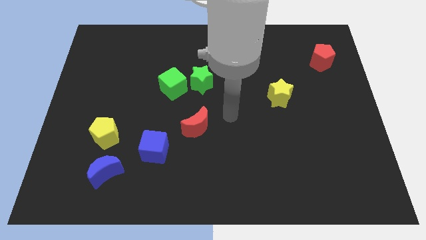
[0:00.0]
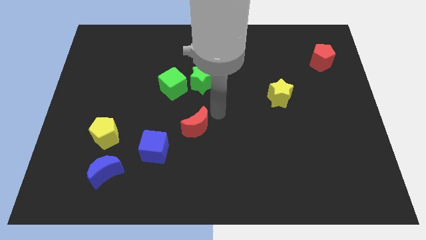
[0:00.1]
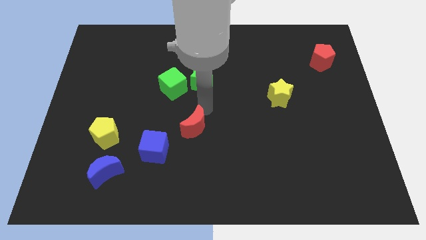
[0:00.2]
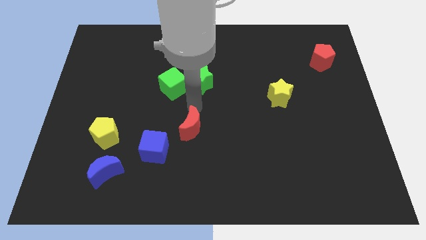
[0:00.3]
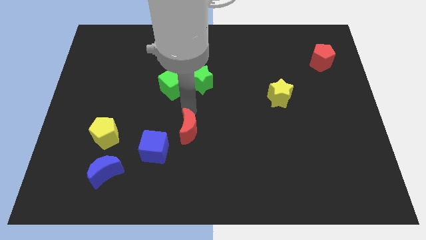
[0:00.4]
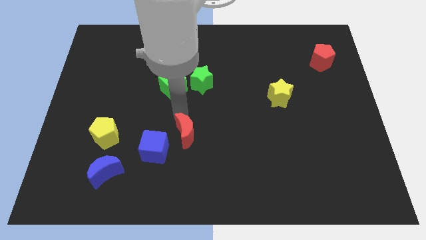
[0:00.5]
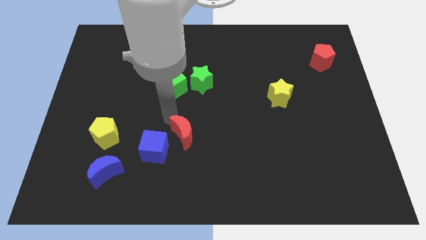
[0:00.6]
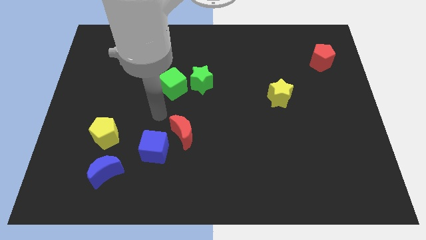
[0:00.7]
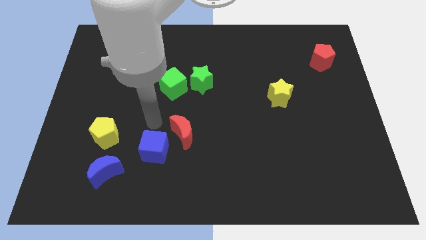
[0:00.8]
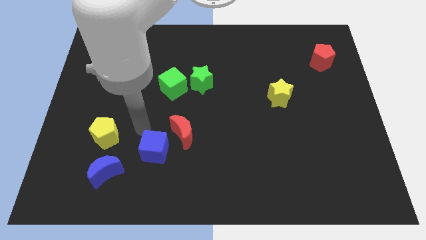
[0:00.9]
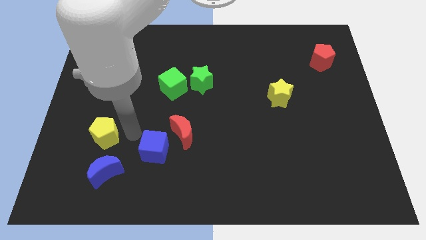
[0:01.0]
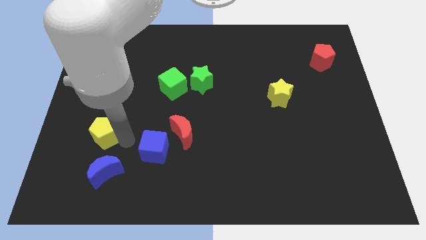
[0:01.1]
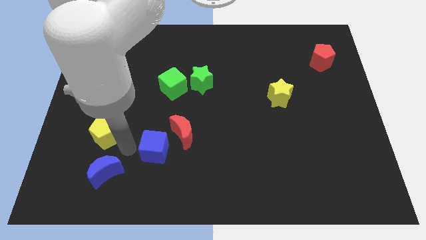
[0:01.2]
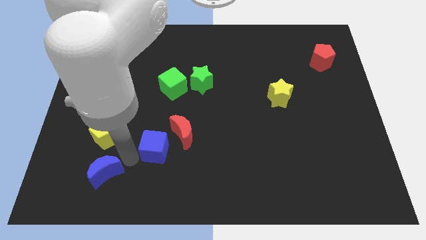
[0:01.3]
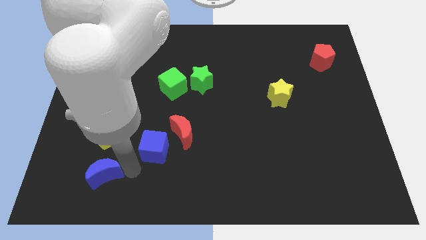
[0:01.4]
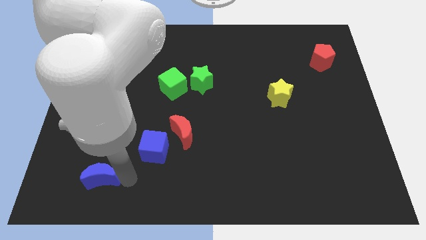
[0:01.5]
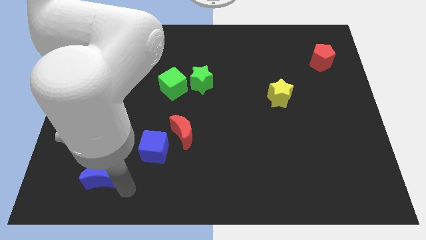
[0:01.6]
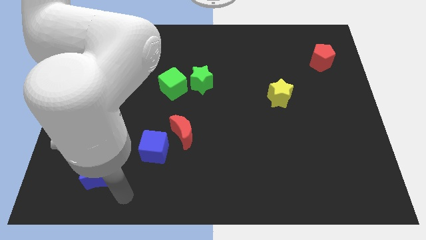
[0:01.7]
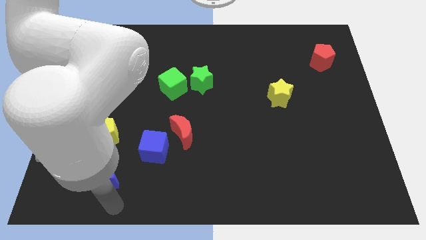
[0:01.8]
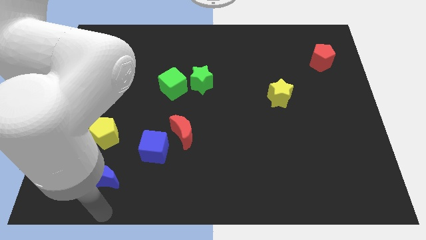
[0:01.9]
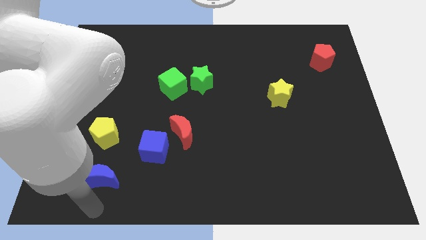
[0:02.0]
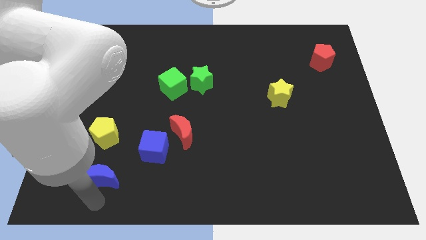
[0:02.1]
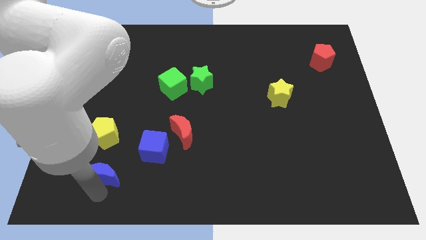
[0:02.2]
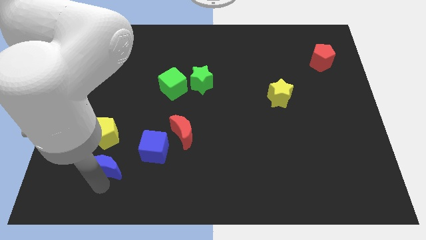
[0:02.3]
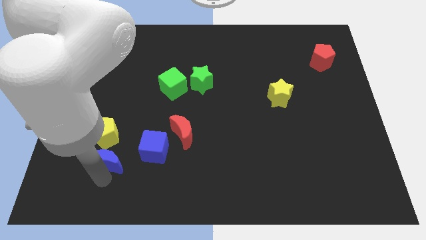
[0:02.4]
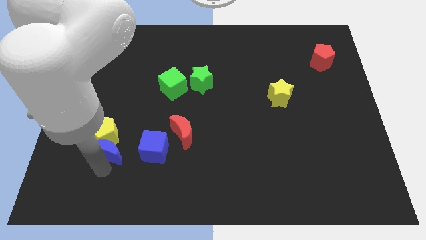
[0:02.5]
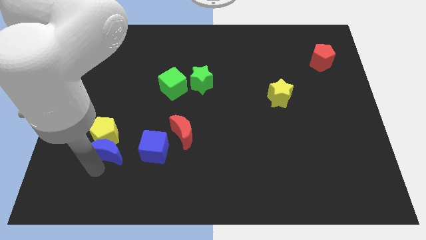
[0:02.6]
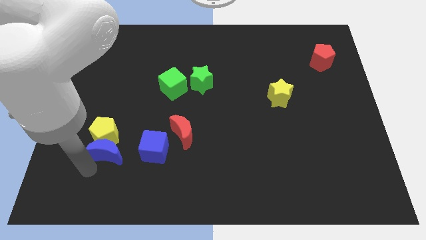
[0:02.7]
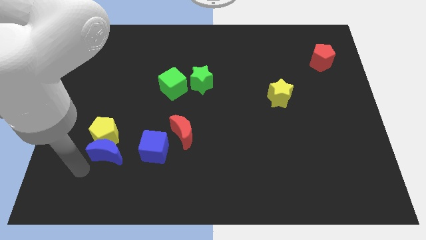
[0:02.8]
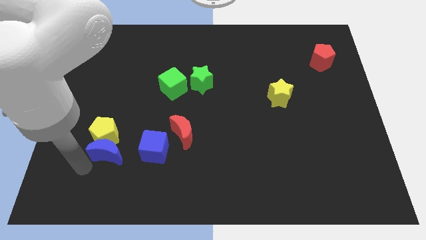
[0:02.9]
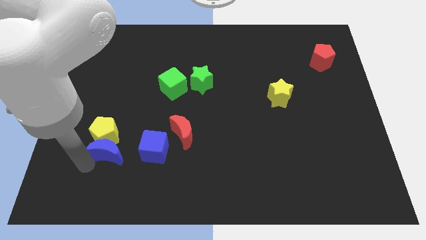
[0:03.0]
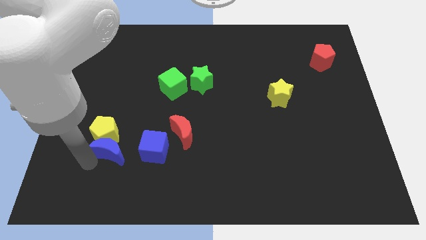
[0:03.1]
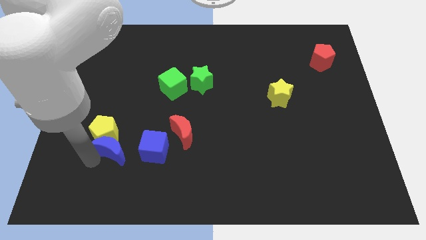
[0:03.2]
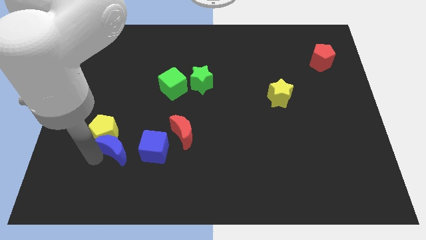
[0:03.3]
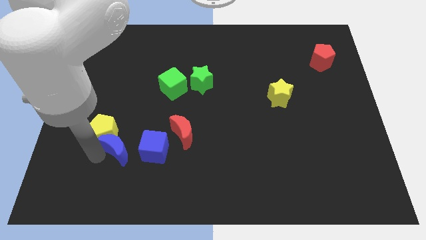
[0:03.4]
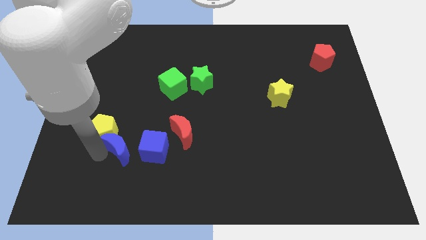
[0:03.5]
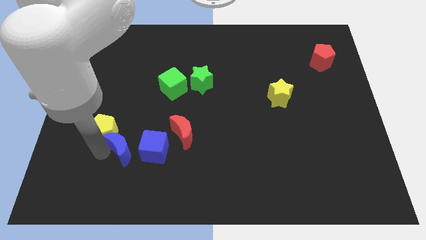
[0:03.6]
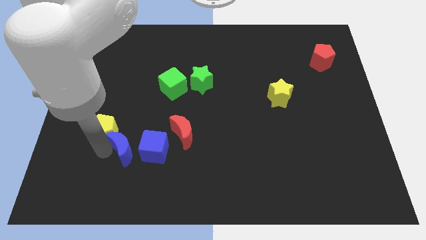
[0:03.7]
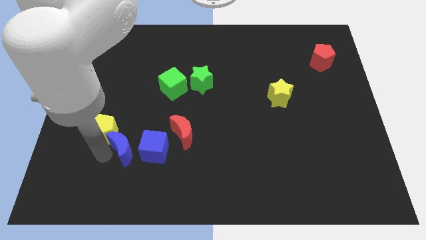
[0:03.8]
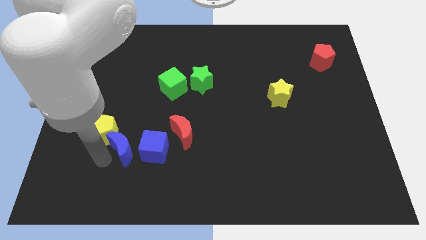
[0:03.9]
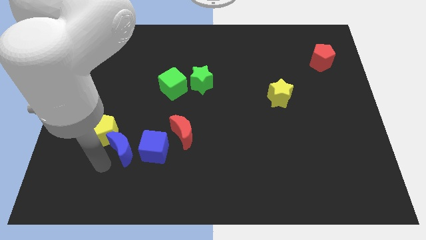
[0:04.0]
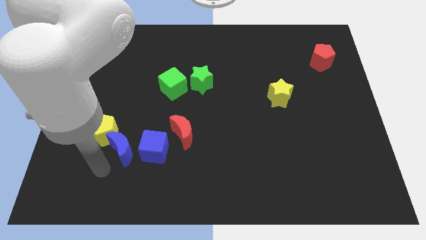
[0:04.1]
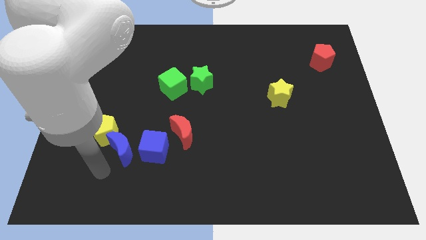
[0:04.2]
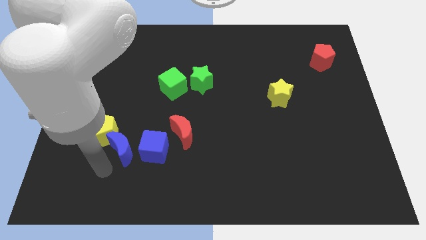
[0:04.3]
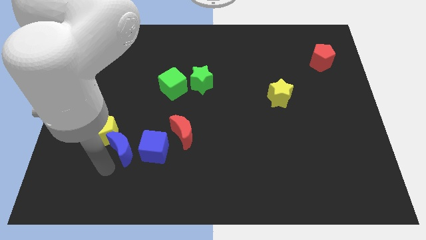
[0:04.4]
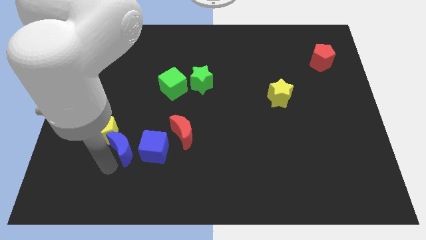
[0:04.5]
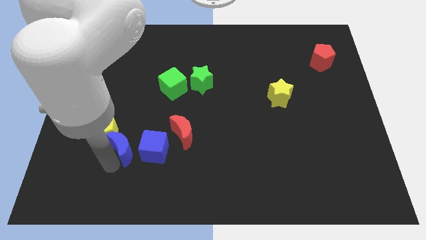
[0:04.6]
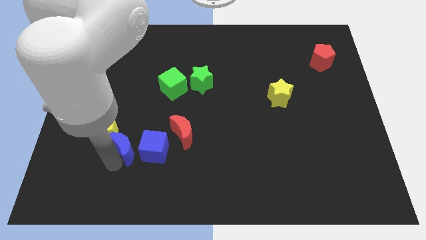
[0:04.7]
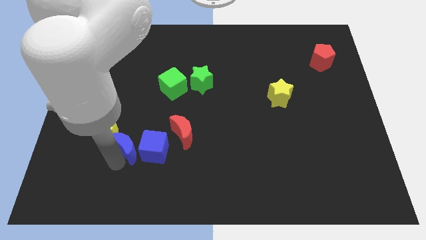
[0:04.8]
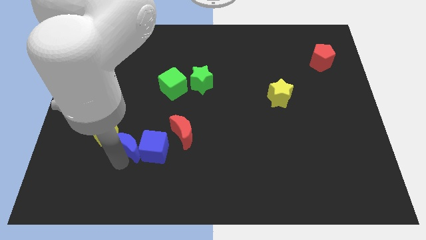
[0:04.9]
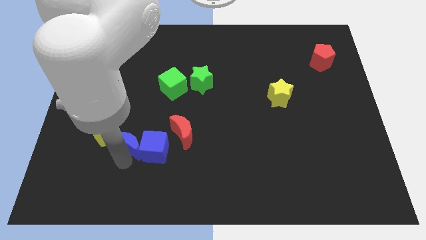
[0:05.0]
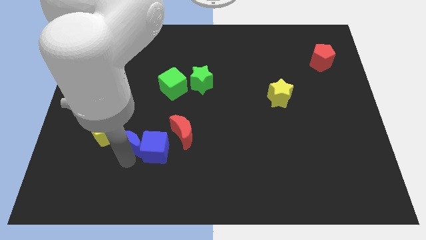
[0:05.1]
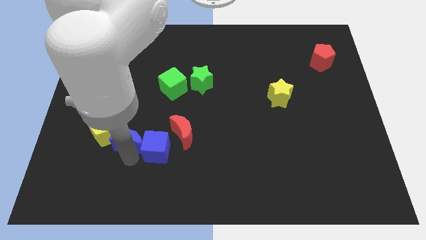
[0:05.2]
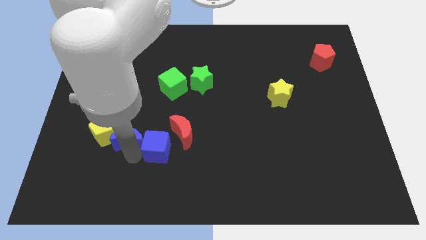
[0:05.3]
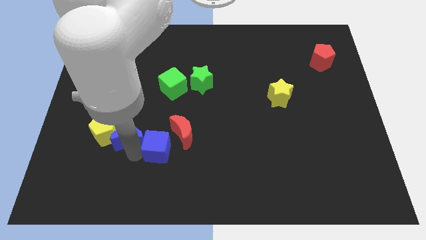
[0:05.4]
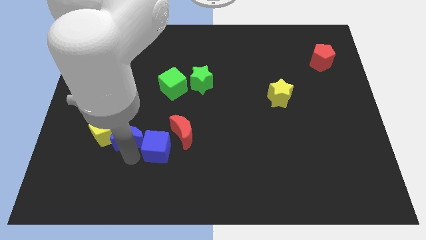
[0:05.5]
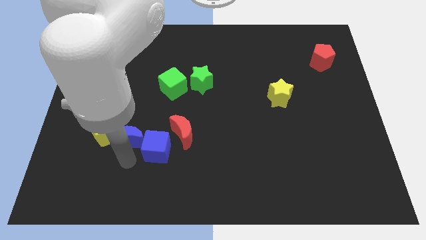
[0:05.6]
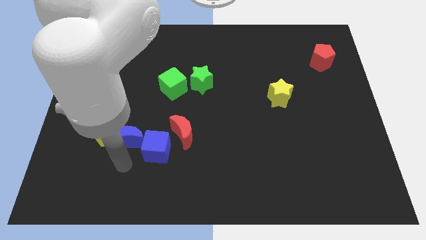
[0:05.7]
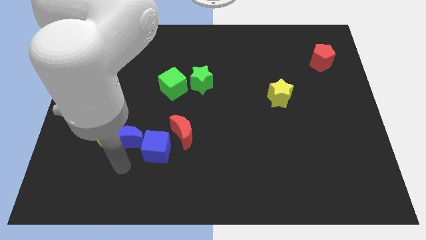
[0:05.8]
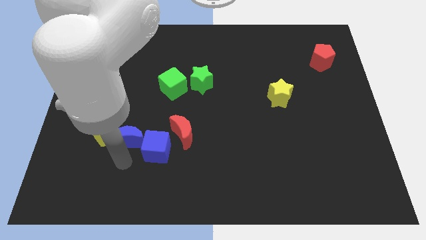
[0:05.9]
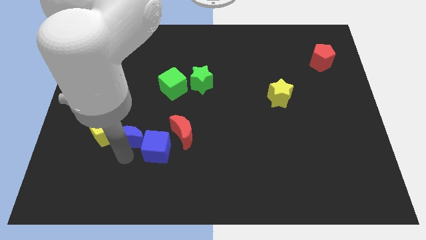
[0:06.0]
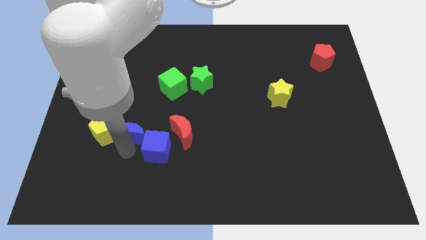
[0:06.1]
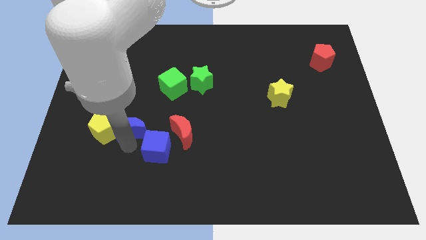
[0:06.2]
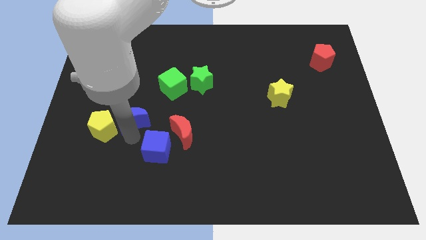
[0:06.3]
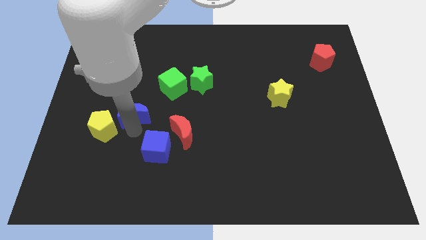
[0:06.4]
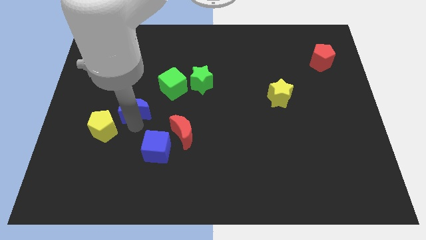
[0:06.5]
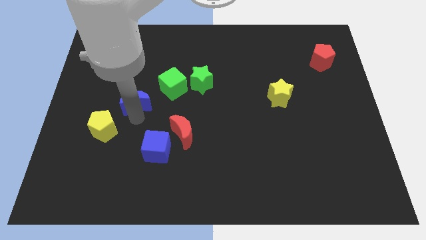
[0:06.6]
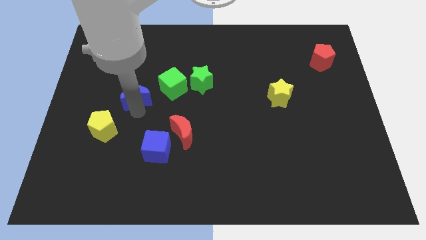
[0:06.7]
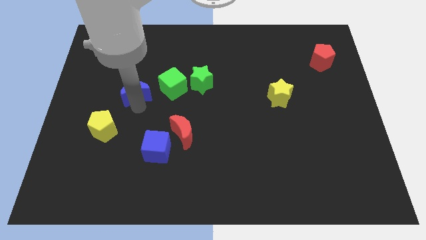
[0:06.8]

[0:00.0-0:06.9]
move the blue moon upwards

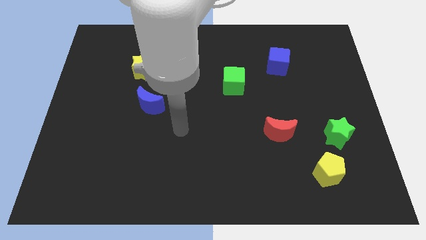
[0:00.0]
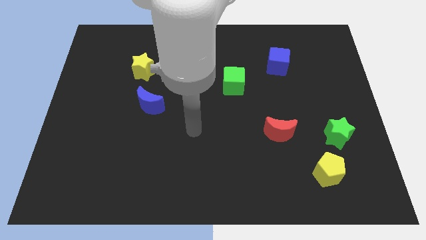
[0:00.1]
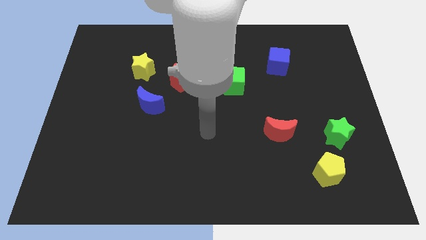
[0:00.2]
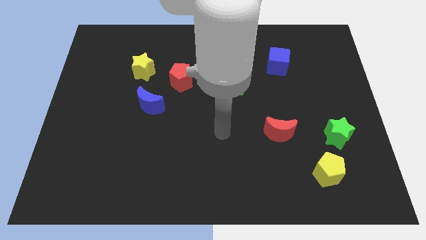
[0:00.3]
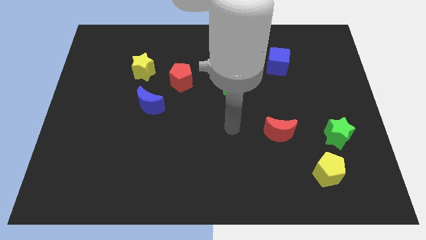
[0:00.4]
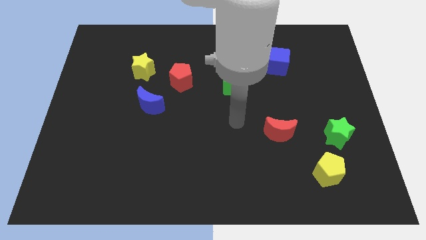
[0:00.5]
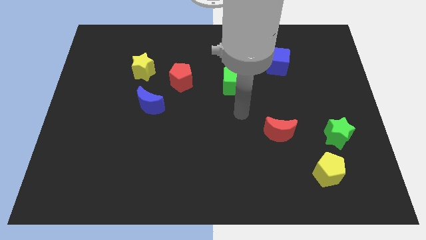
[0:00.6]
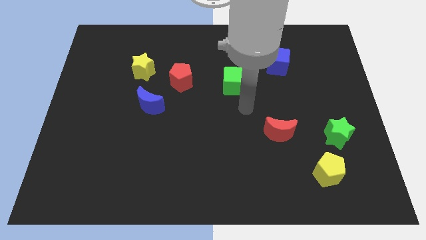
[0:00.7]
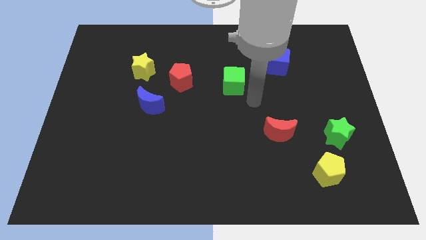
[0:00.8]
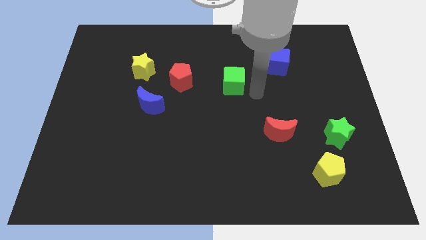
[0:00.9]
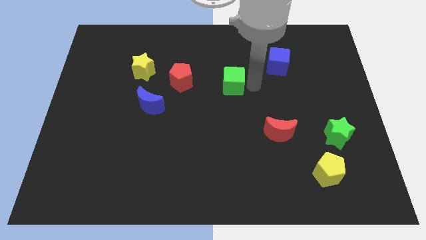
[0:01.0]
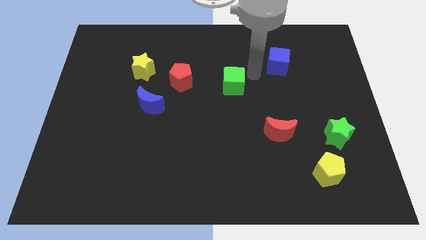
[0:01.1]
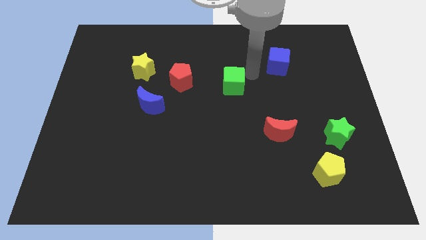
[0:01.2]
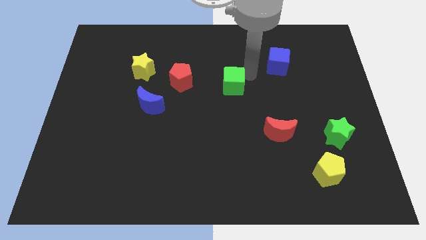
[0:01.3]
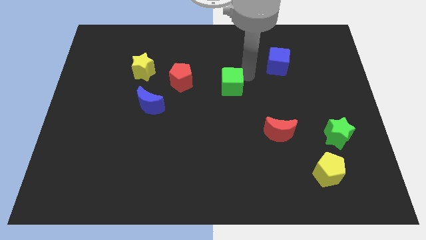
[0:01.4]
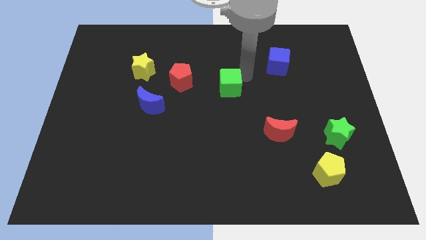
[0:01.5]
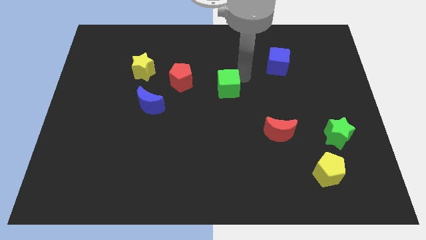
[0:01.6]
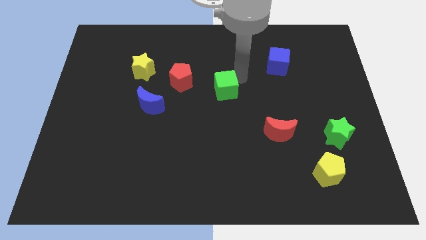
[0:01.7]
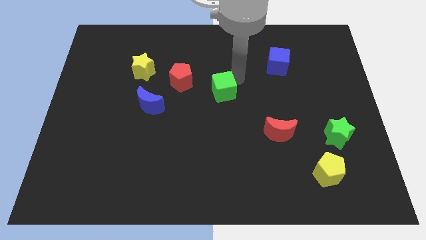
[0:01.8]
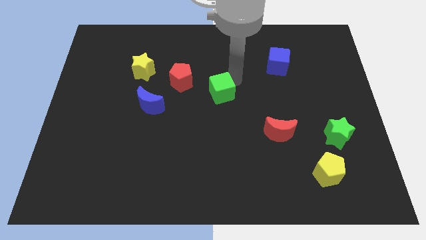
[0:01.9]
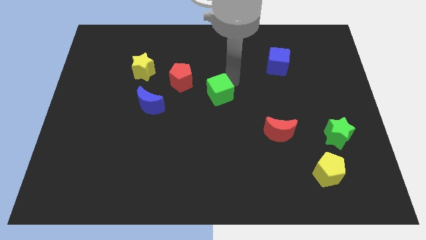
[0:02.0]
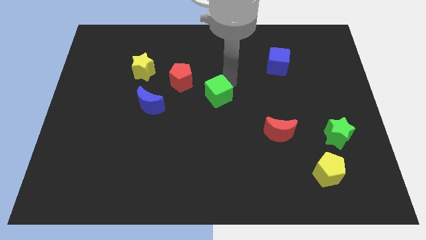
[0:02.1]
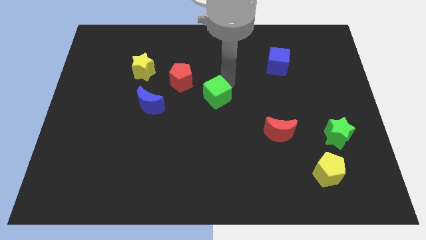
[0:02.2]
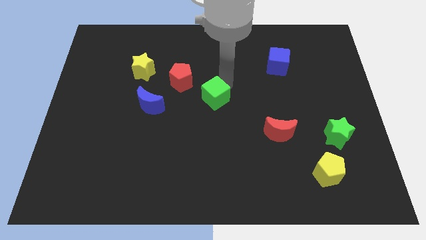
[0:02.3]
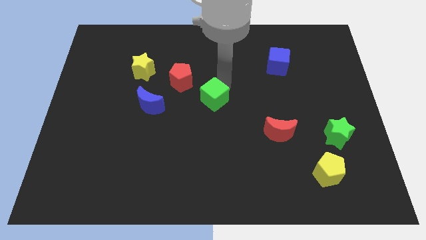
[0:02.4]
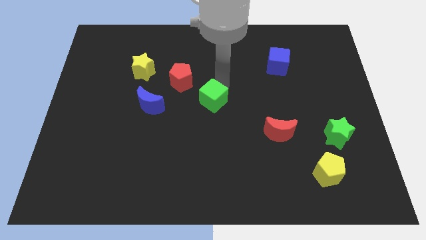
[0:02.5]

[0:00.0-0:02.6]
slide the green cube somewhat downwards and left
